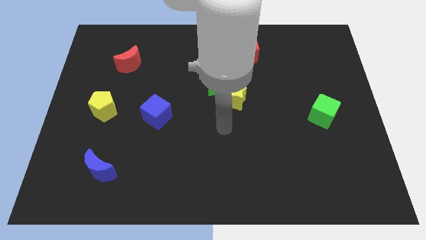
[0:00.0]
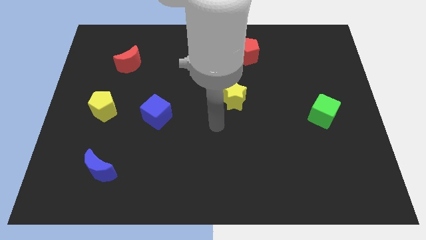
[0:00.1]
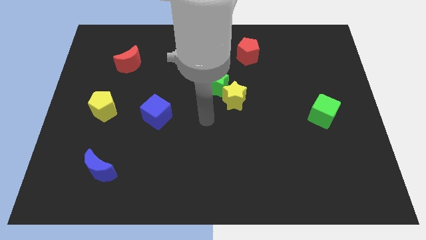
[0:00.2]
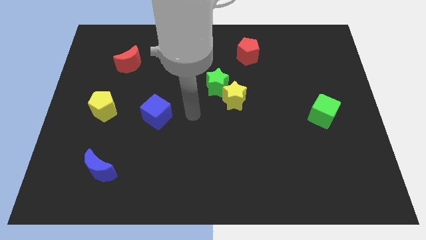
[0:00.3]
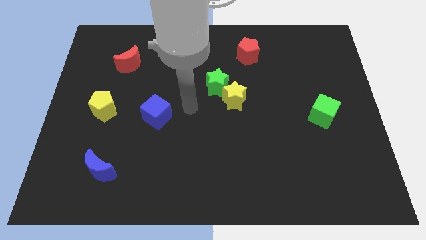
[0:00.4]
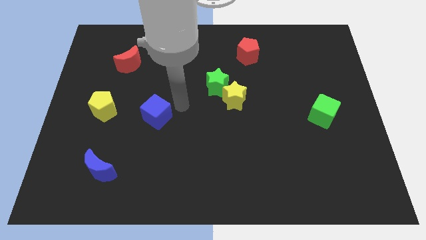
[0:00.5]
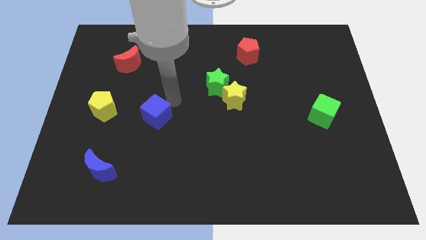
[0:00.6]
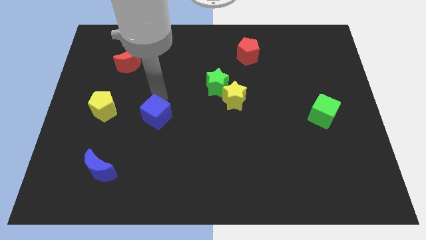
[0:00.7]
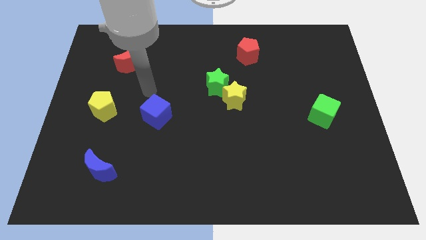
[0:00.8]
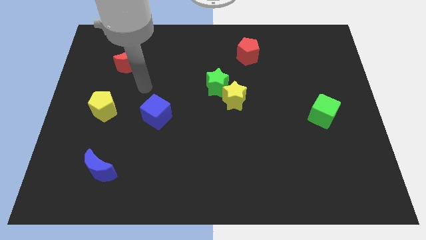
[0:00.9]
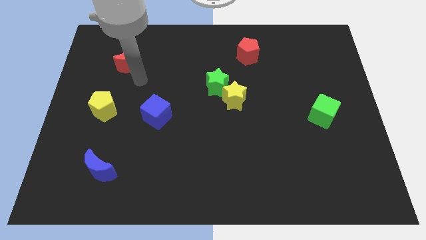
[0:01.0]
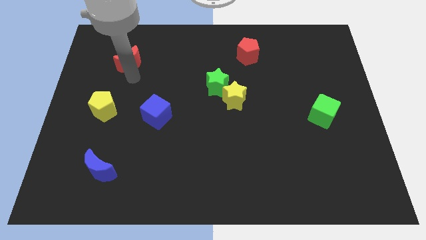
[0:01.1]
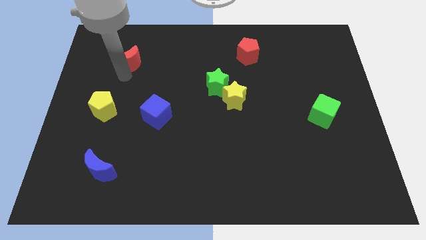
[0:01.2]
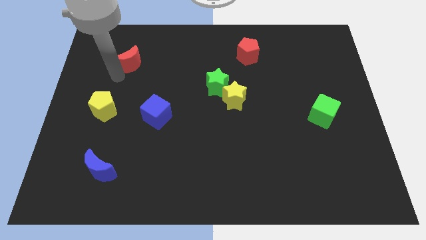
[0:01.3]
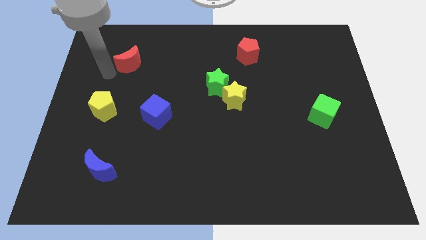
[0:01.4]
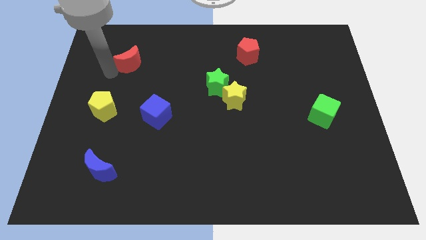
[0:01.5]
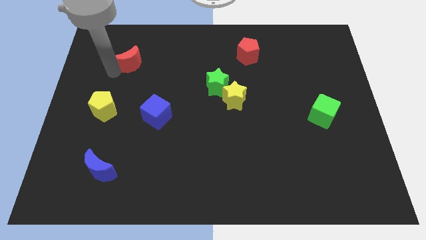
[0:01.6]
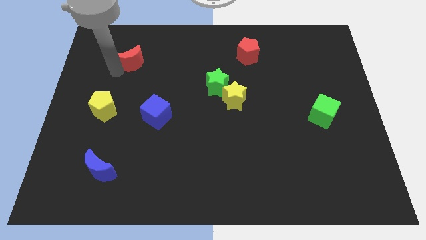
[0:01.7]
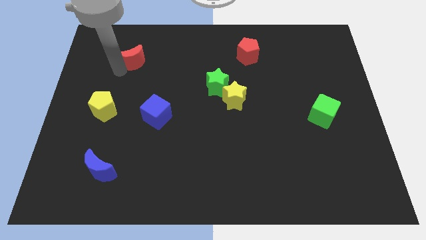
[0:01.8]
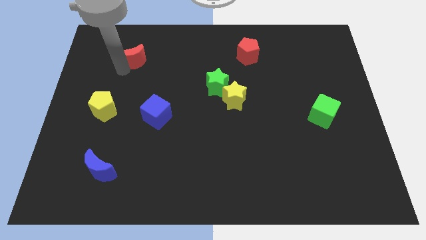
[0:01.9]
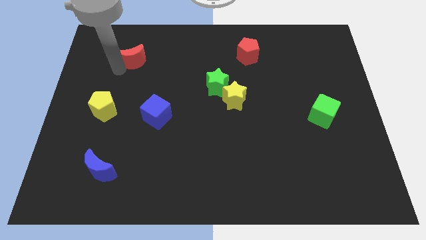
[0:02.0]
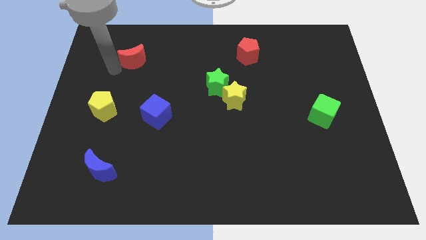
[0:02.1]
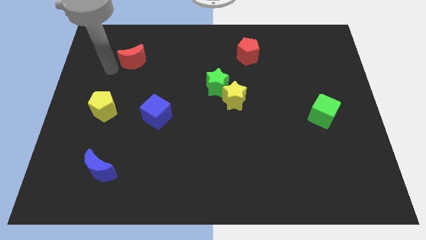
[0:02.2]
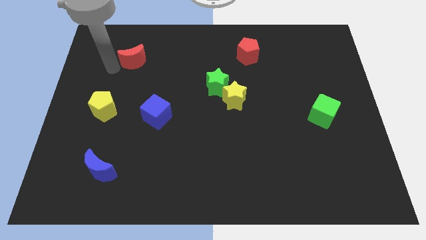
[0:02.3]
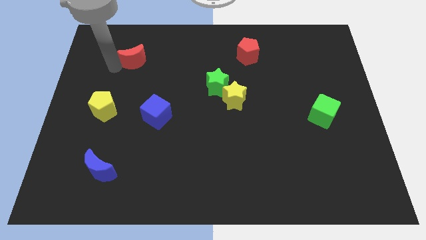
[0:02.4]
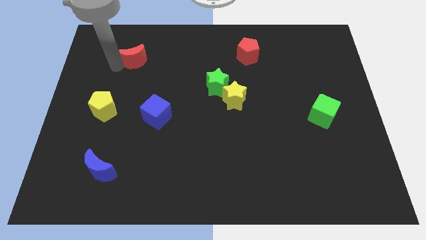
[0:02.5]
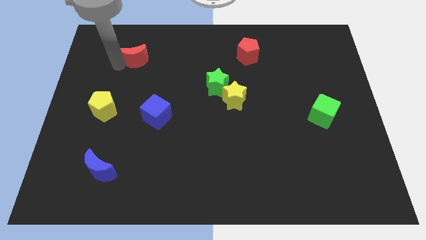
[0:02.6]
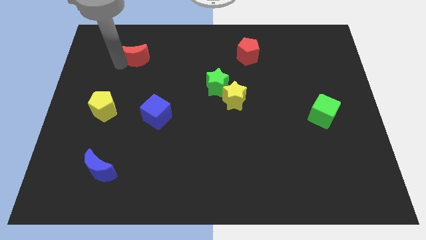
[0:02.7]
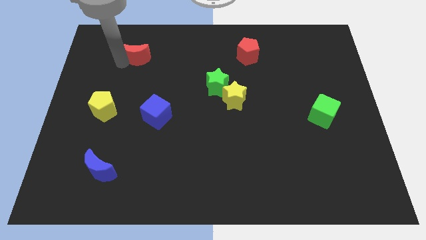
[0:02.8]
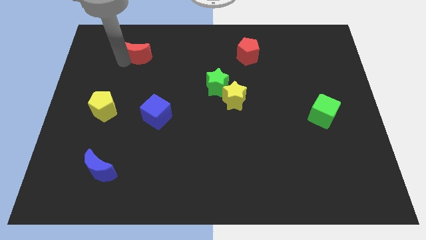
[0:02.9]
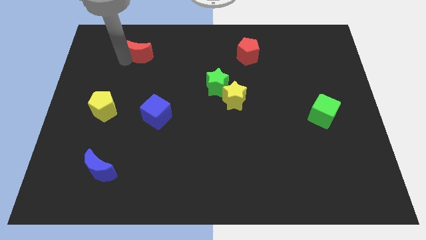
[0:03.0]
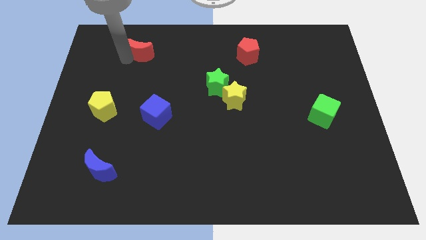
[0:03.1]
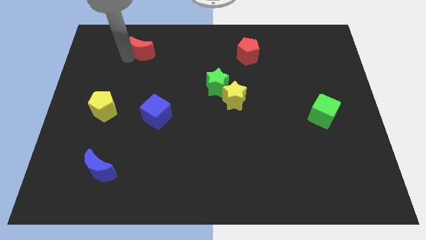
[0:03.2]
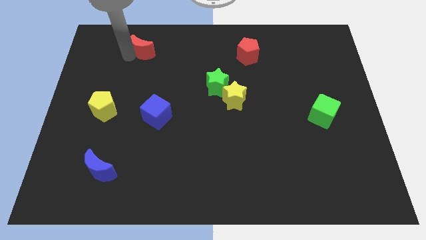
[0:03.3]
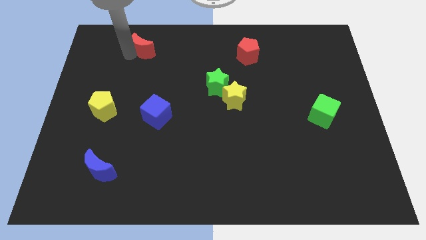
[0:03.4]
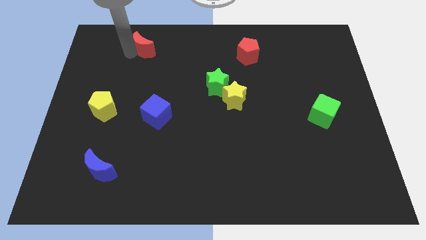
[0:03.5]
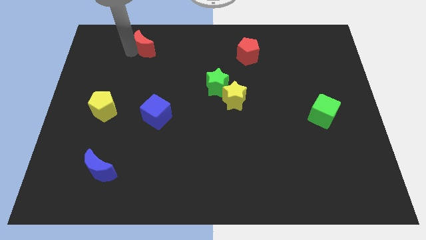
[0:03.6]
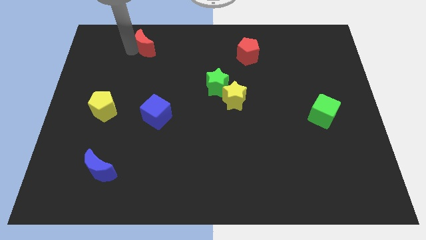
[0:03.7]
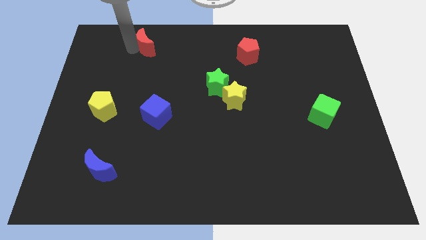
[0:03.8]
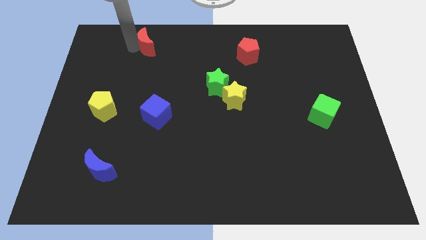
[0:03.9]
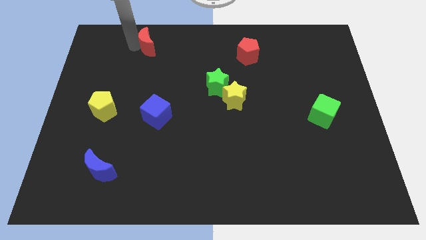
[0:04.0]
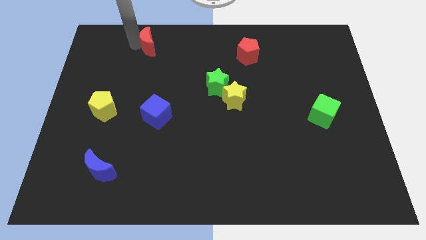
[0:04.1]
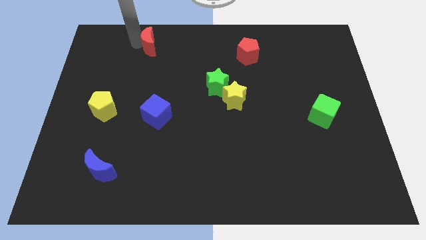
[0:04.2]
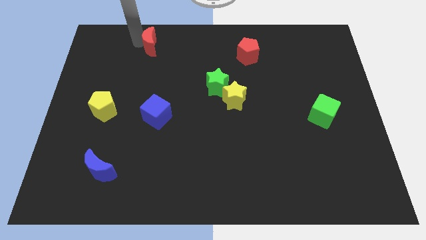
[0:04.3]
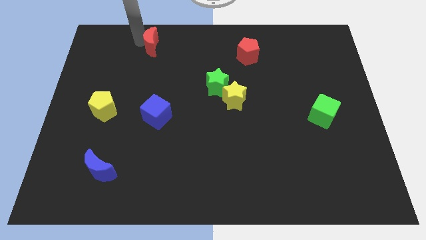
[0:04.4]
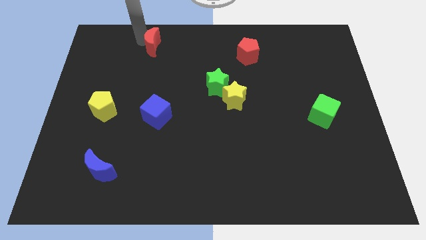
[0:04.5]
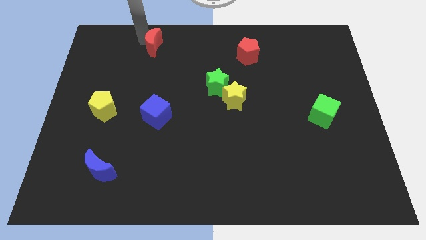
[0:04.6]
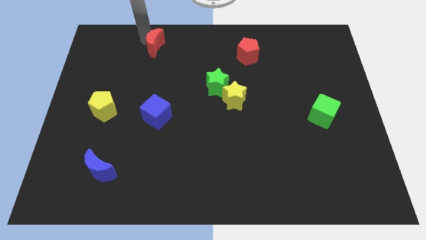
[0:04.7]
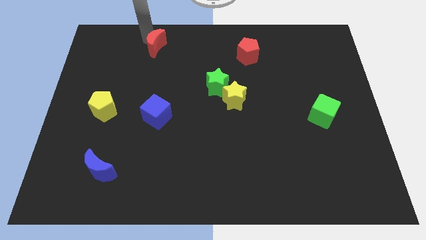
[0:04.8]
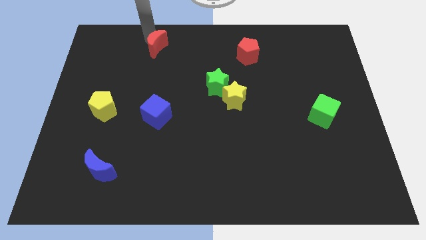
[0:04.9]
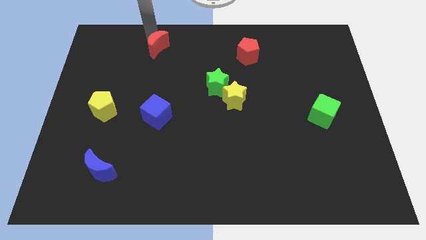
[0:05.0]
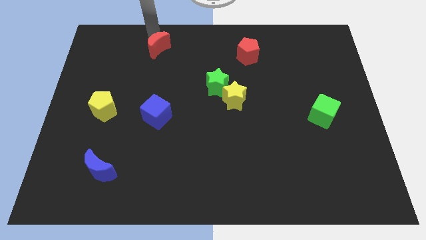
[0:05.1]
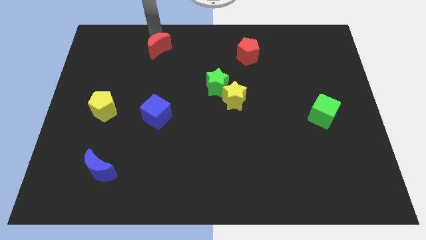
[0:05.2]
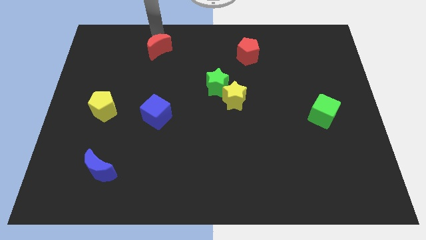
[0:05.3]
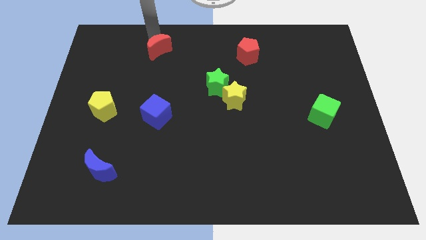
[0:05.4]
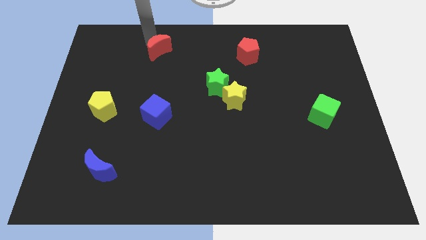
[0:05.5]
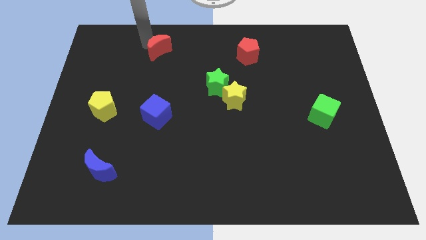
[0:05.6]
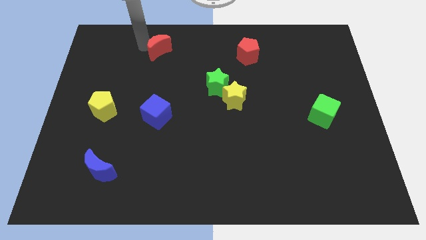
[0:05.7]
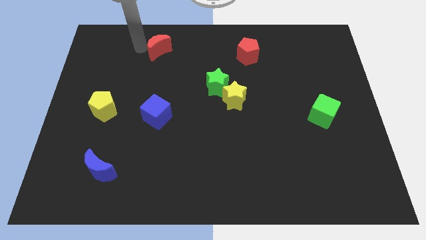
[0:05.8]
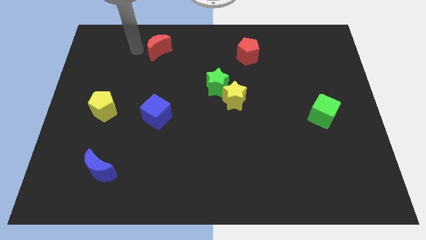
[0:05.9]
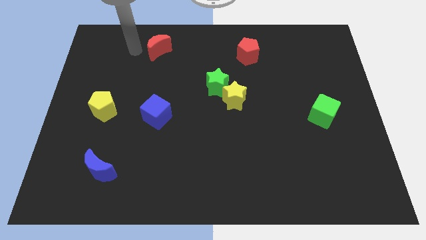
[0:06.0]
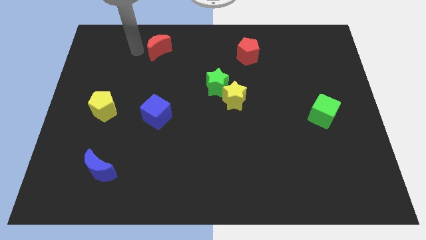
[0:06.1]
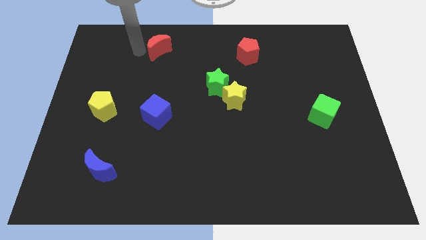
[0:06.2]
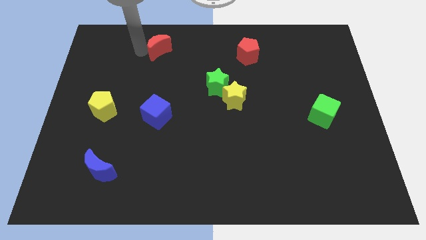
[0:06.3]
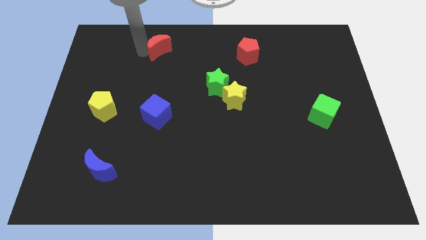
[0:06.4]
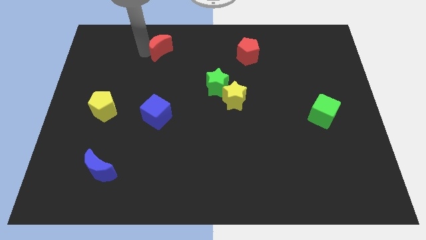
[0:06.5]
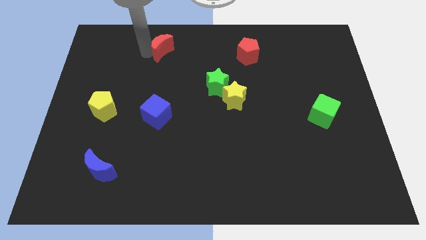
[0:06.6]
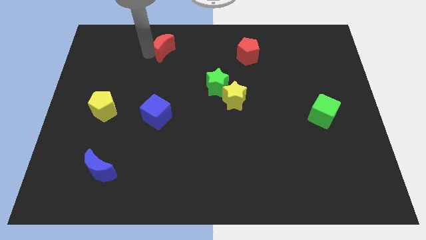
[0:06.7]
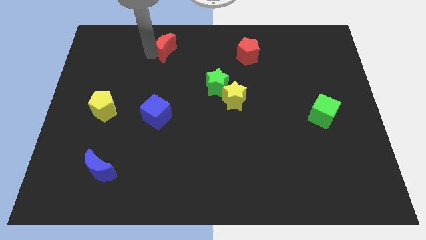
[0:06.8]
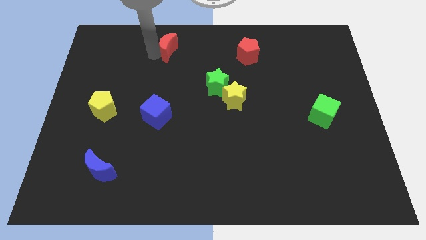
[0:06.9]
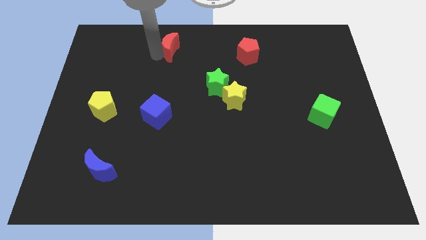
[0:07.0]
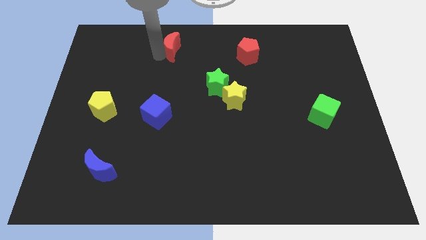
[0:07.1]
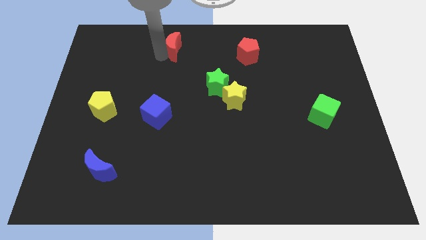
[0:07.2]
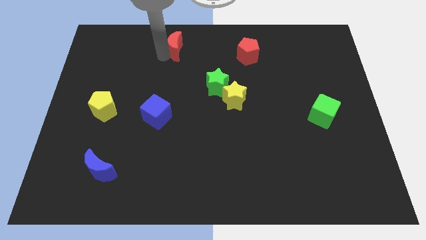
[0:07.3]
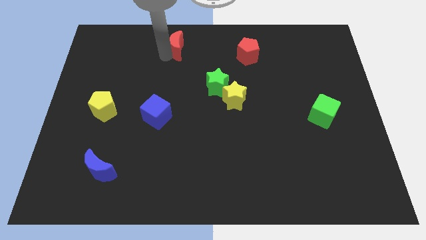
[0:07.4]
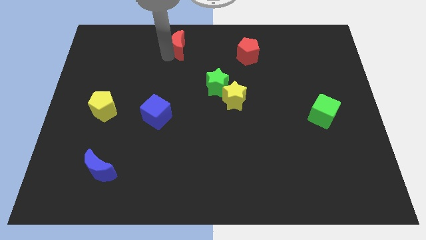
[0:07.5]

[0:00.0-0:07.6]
push the red moon to the top
